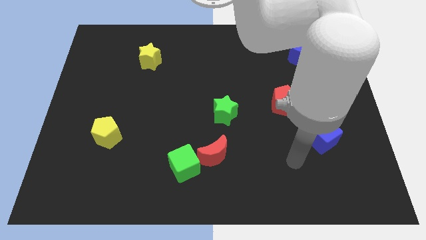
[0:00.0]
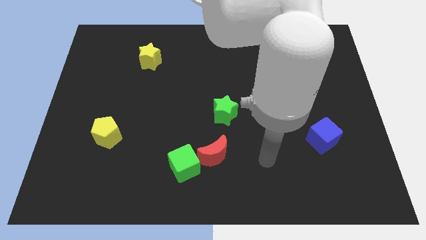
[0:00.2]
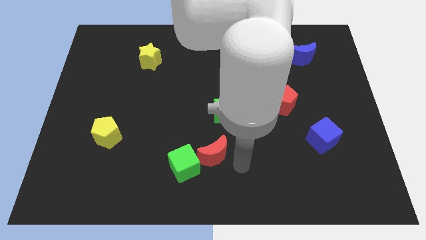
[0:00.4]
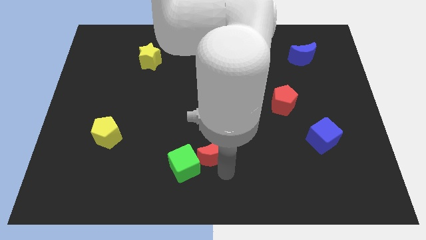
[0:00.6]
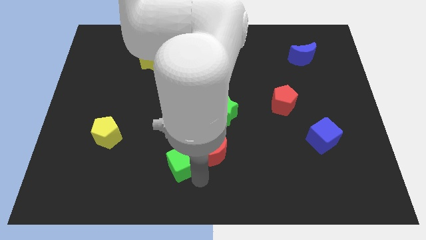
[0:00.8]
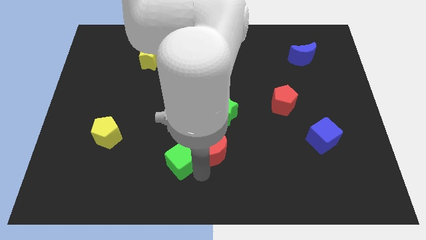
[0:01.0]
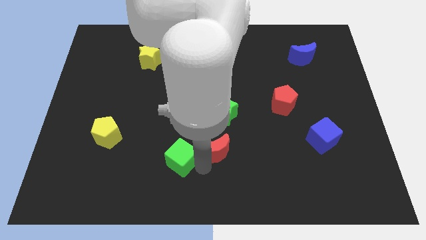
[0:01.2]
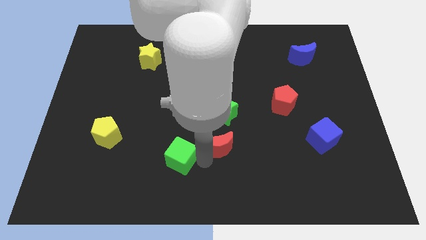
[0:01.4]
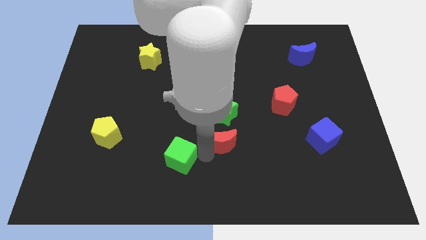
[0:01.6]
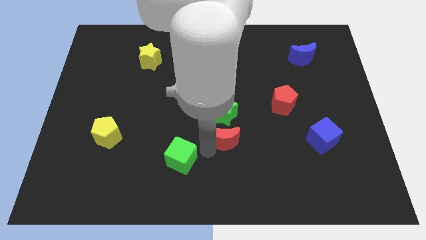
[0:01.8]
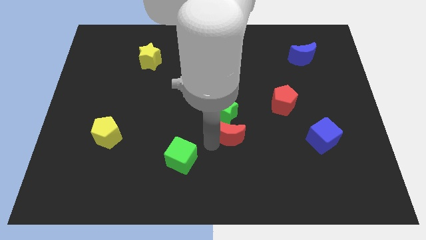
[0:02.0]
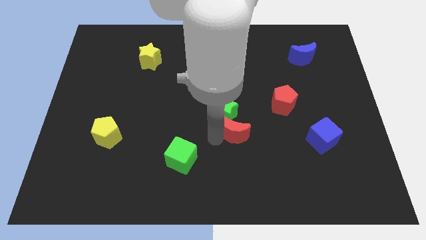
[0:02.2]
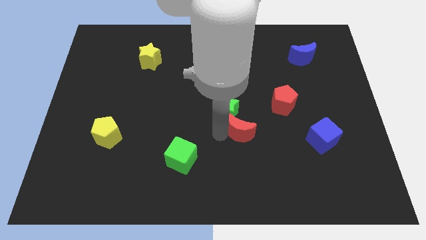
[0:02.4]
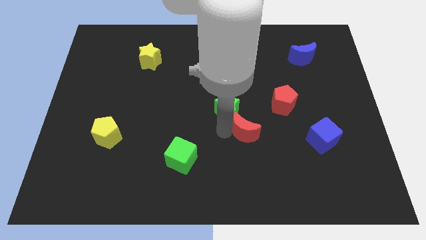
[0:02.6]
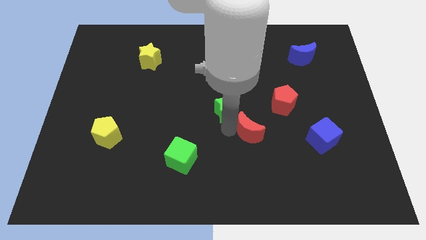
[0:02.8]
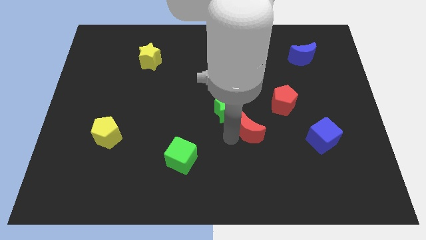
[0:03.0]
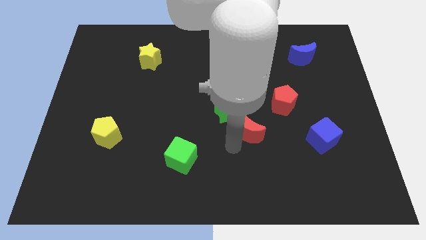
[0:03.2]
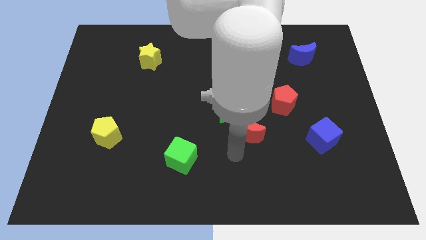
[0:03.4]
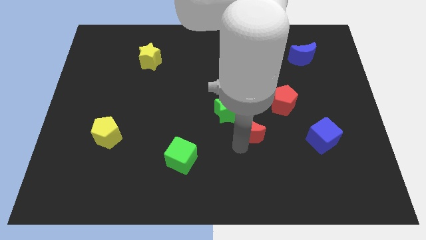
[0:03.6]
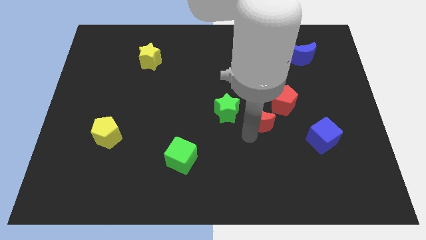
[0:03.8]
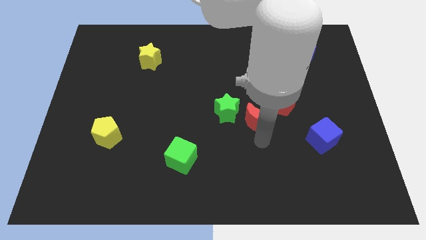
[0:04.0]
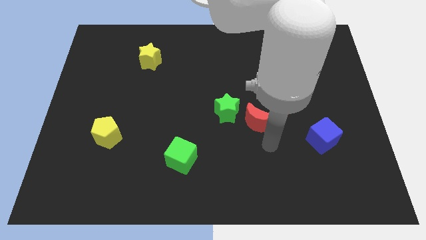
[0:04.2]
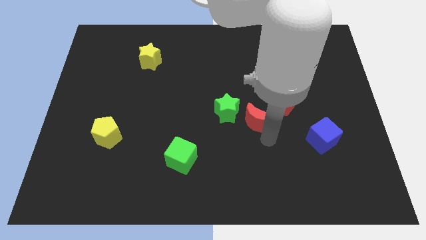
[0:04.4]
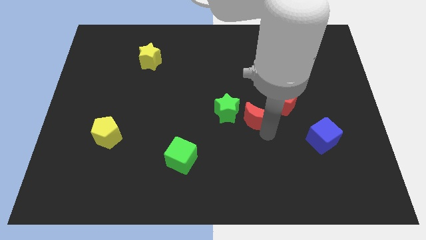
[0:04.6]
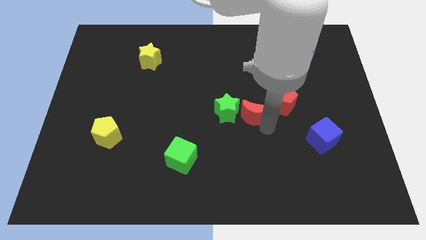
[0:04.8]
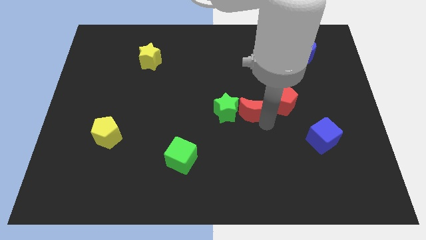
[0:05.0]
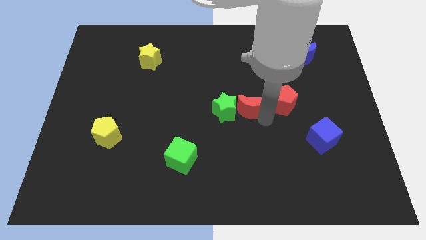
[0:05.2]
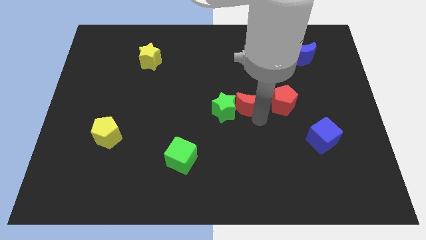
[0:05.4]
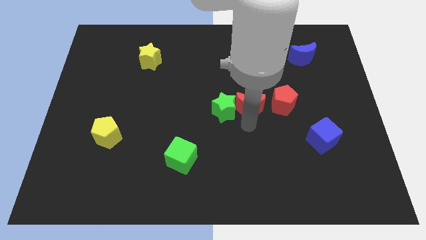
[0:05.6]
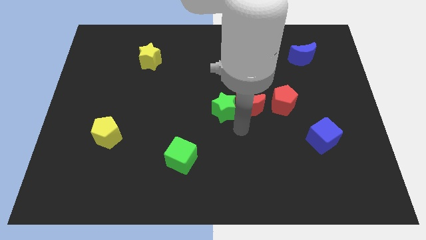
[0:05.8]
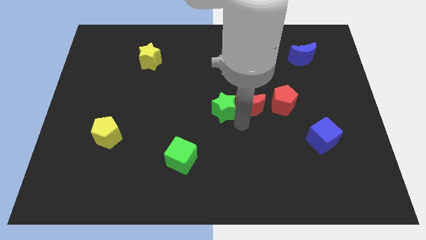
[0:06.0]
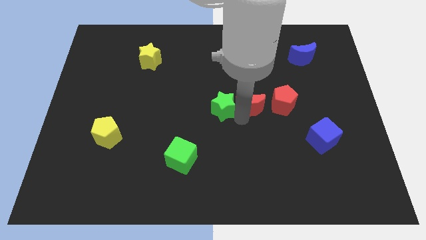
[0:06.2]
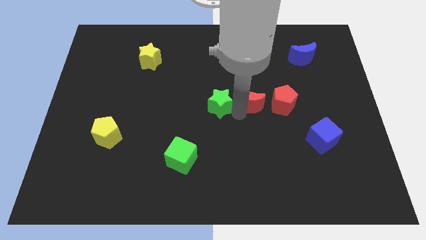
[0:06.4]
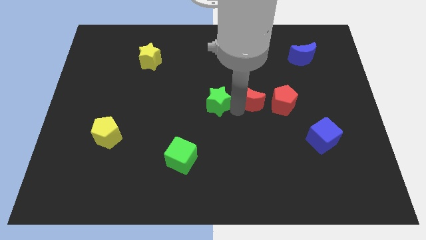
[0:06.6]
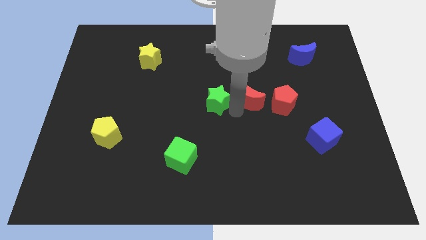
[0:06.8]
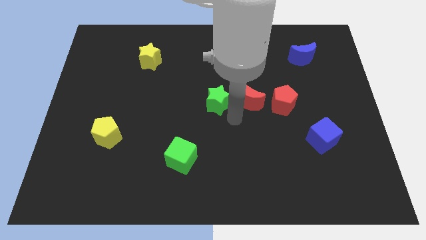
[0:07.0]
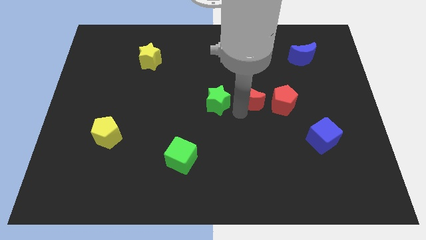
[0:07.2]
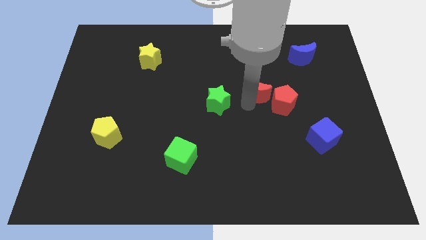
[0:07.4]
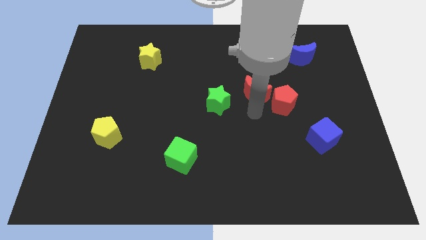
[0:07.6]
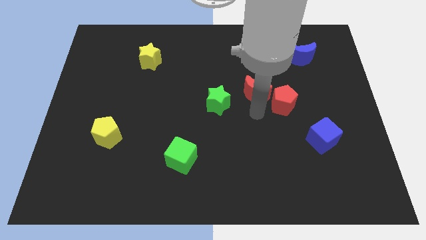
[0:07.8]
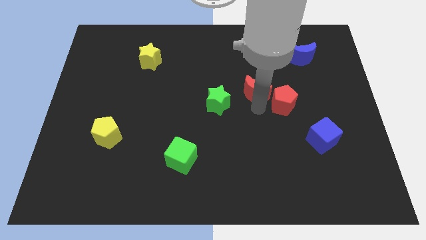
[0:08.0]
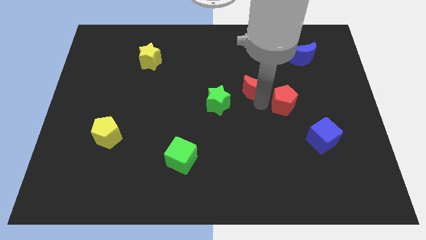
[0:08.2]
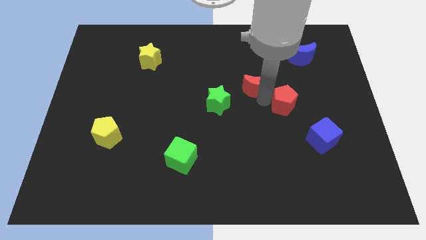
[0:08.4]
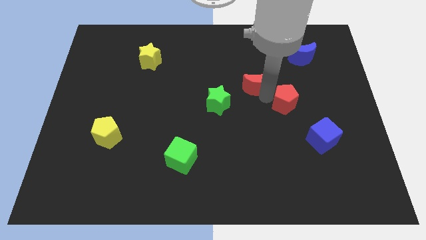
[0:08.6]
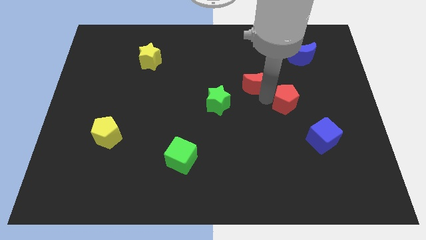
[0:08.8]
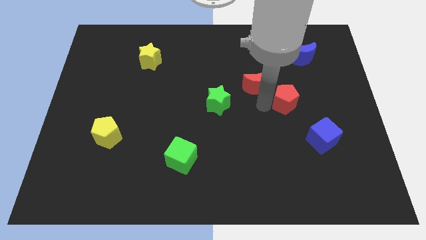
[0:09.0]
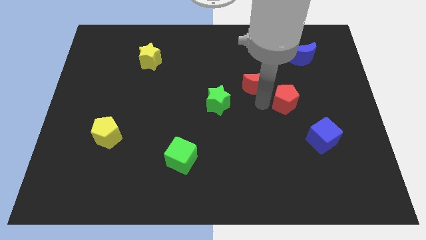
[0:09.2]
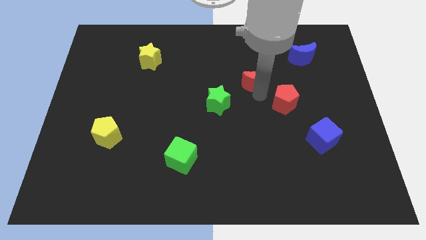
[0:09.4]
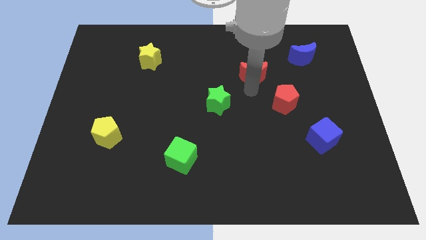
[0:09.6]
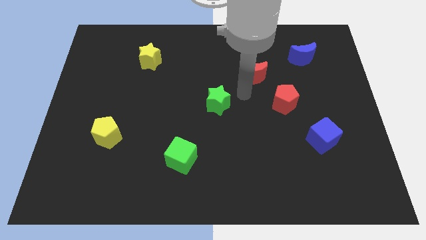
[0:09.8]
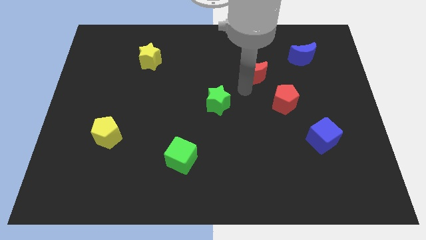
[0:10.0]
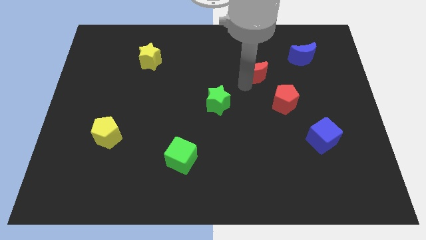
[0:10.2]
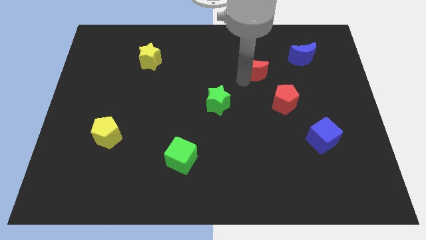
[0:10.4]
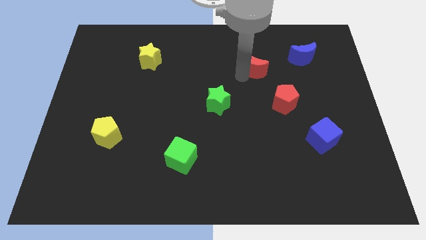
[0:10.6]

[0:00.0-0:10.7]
move the red moon just left of the blue moon

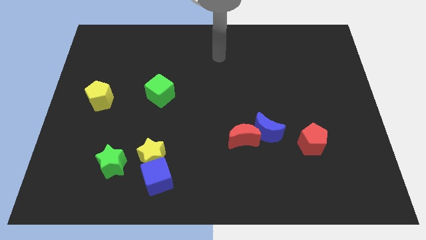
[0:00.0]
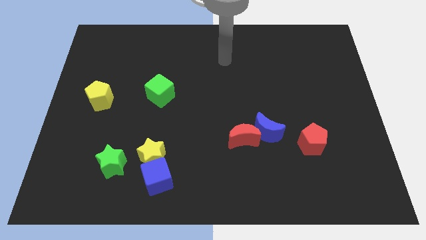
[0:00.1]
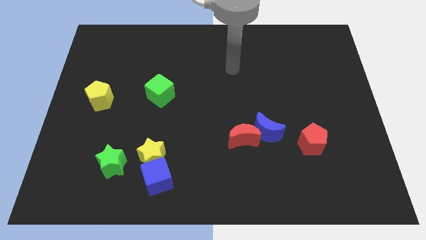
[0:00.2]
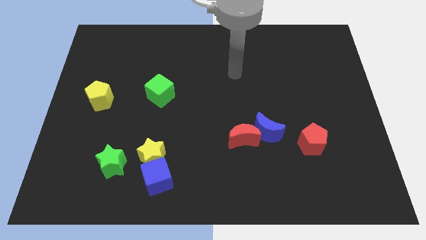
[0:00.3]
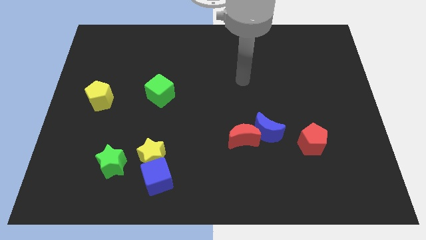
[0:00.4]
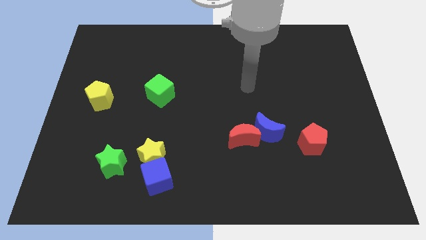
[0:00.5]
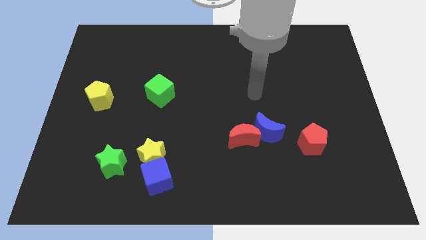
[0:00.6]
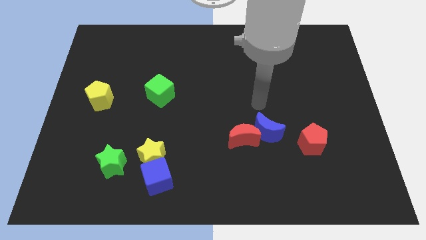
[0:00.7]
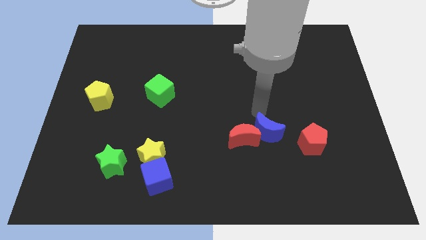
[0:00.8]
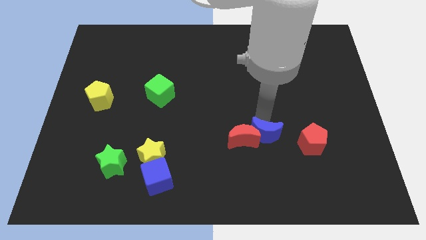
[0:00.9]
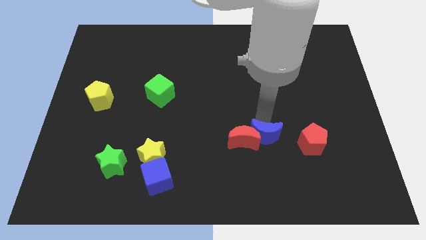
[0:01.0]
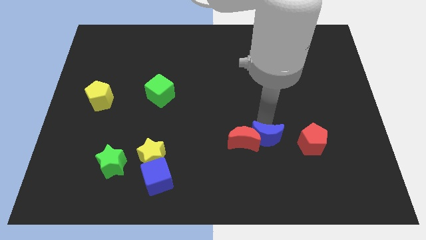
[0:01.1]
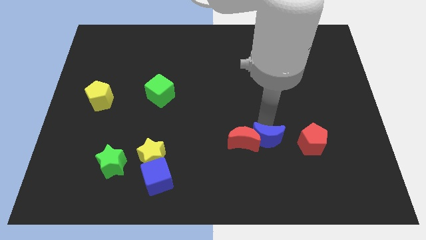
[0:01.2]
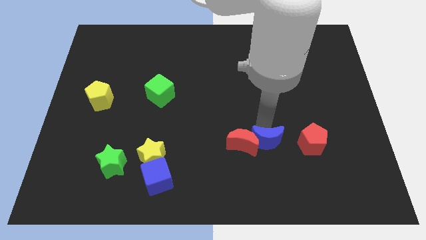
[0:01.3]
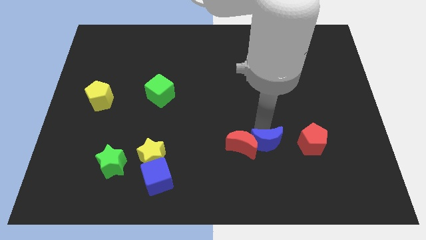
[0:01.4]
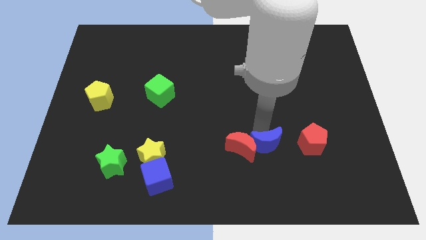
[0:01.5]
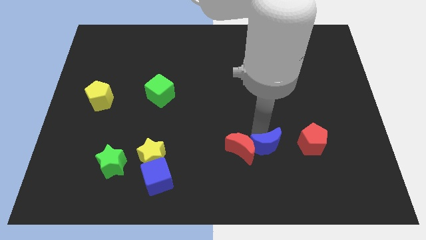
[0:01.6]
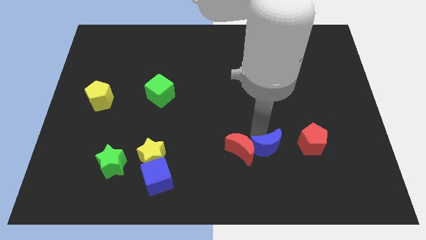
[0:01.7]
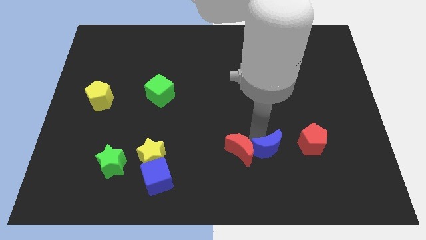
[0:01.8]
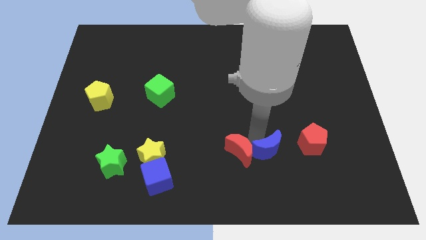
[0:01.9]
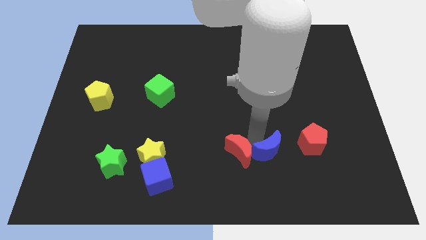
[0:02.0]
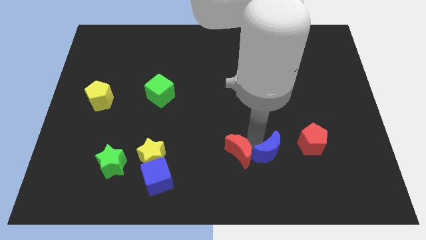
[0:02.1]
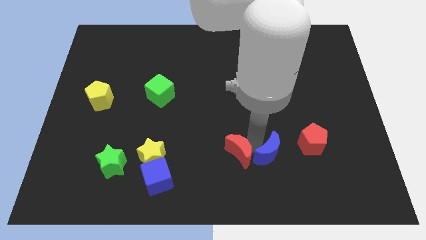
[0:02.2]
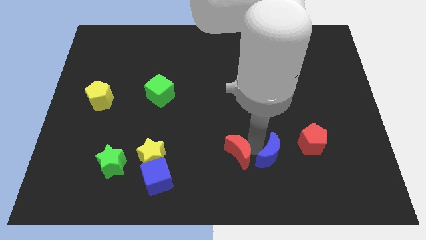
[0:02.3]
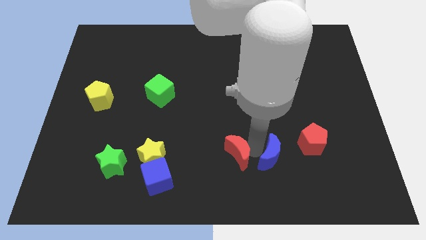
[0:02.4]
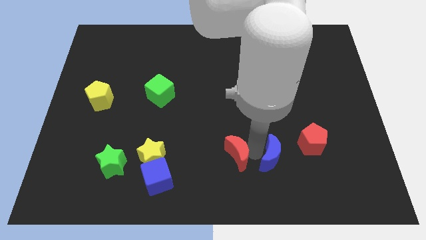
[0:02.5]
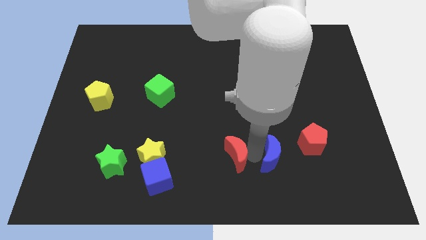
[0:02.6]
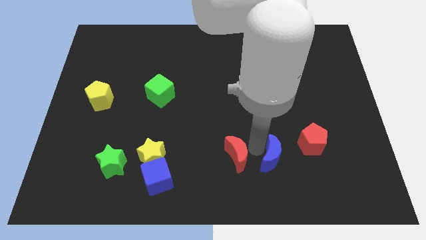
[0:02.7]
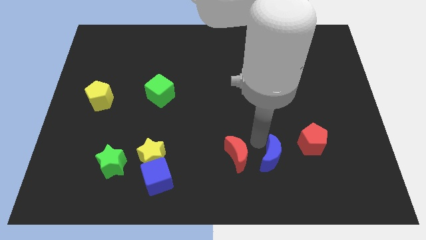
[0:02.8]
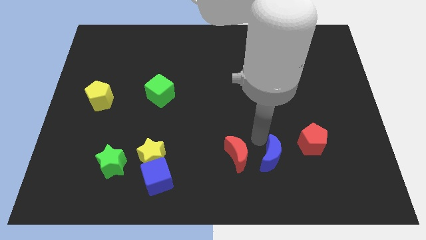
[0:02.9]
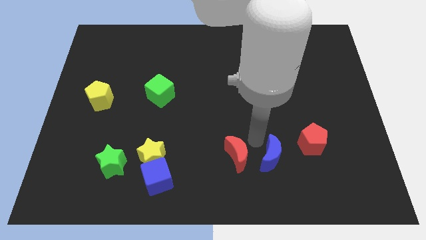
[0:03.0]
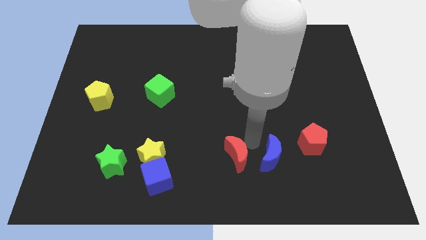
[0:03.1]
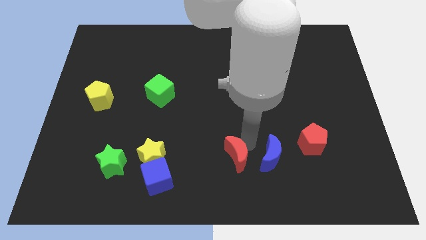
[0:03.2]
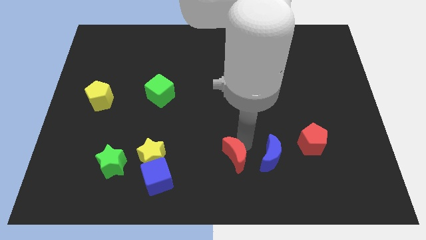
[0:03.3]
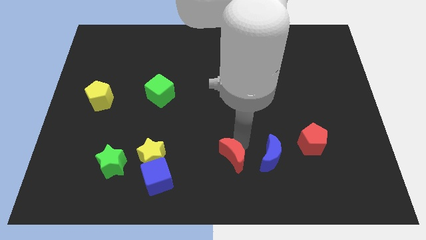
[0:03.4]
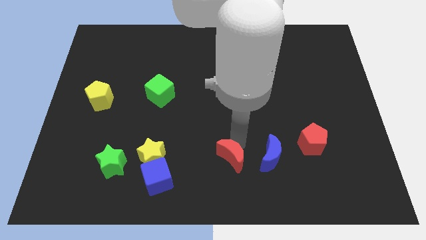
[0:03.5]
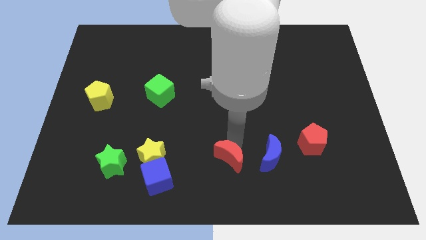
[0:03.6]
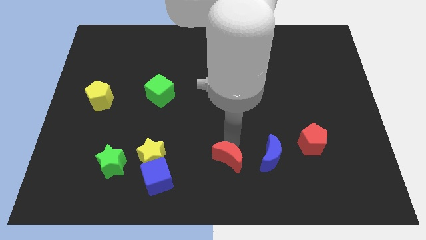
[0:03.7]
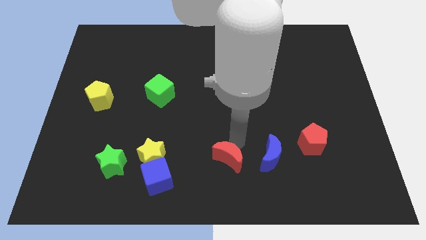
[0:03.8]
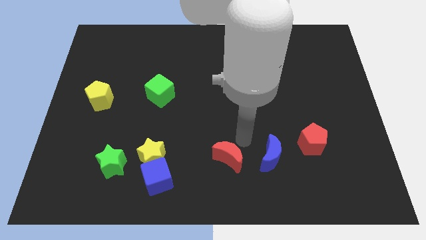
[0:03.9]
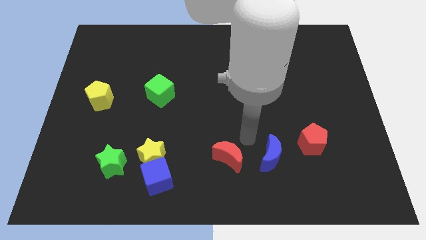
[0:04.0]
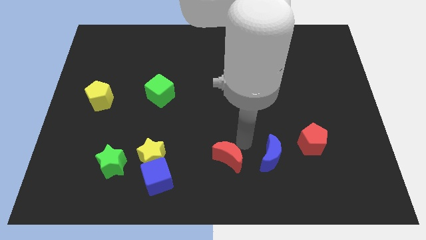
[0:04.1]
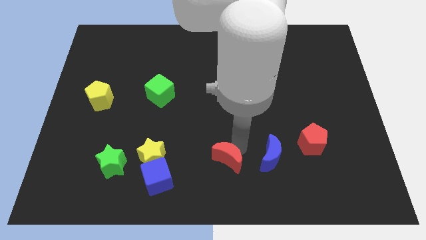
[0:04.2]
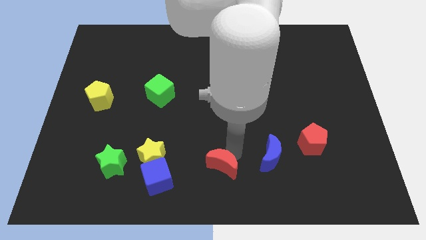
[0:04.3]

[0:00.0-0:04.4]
slide the red moon right of the blue cube
